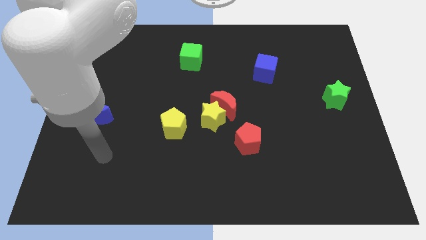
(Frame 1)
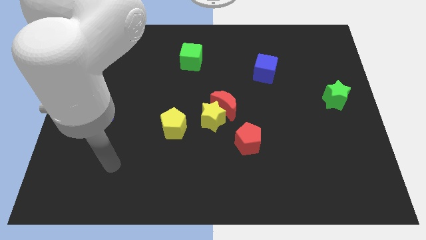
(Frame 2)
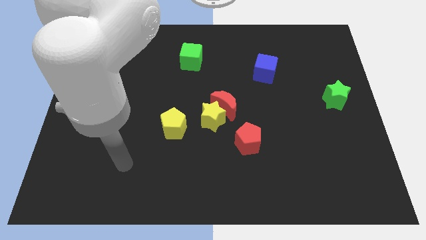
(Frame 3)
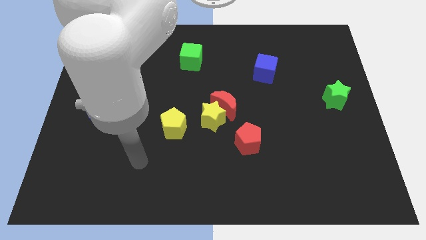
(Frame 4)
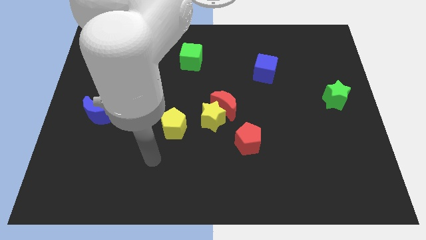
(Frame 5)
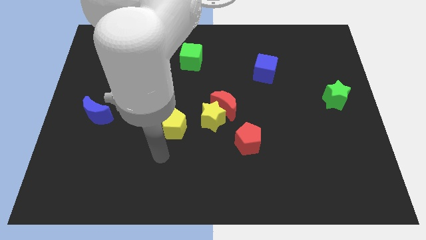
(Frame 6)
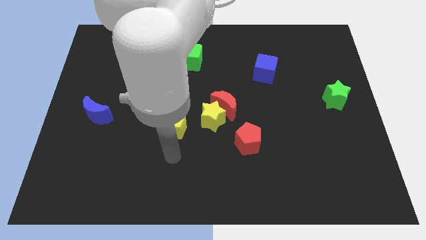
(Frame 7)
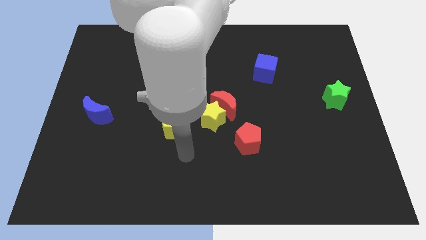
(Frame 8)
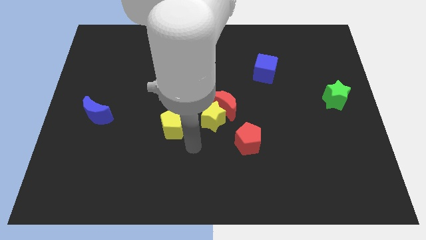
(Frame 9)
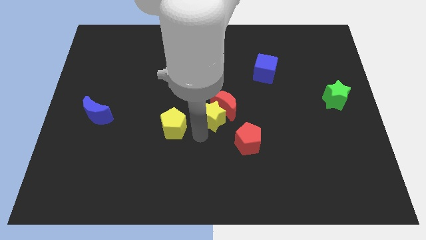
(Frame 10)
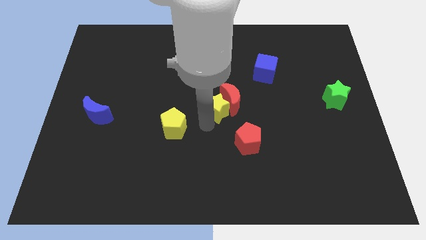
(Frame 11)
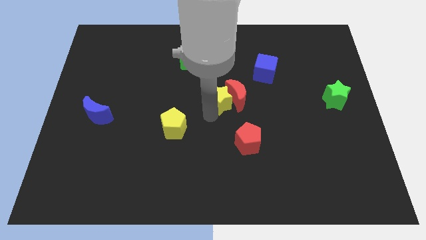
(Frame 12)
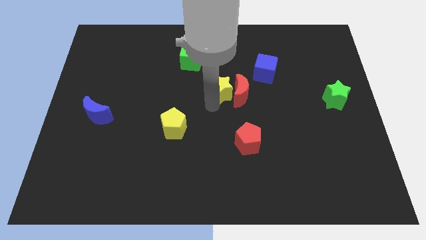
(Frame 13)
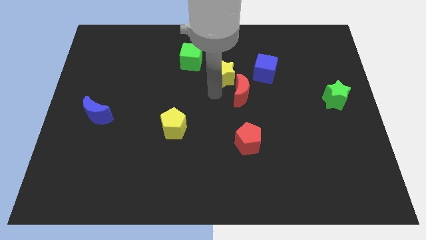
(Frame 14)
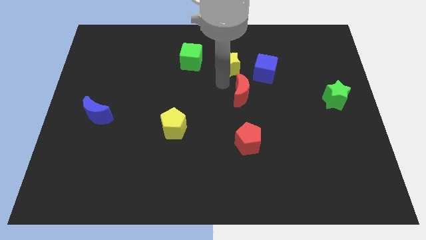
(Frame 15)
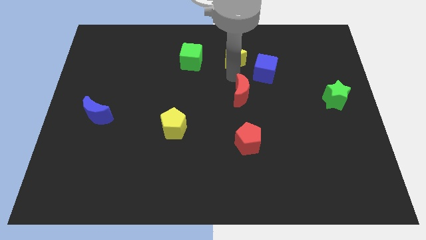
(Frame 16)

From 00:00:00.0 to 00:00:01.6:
separate the red moon from the yellow star

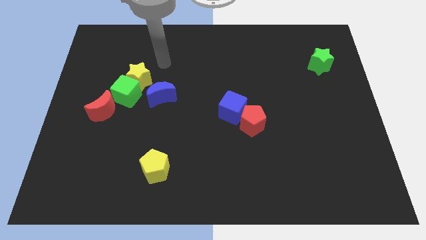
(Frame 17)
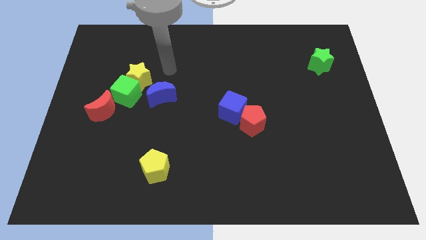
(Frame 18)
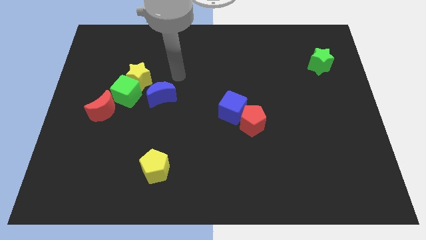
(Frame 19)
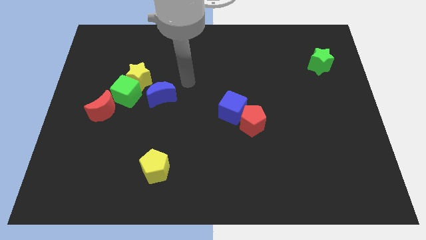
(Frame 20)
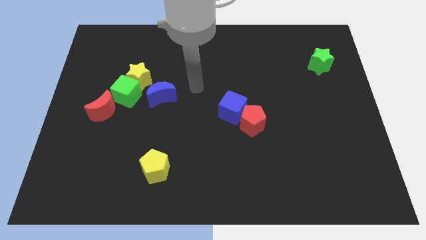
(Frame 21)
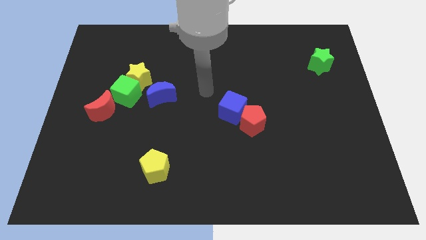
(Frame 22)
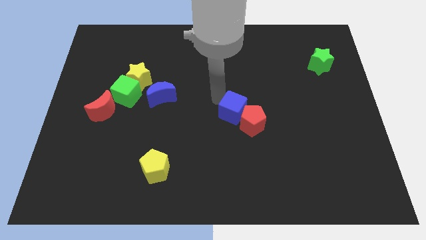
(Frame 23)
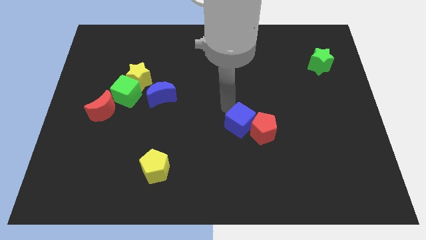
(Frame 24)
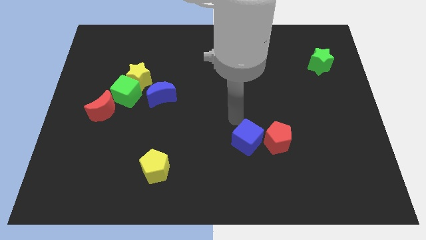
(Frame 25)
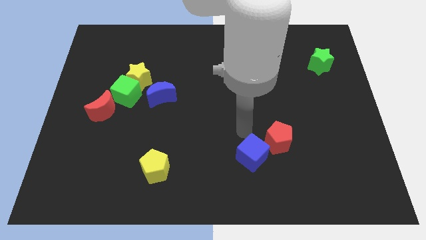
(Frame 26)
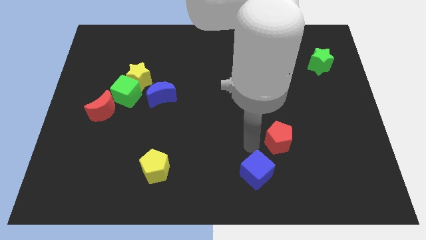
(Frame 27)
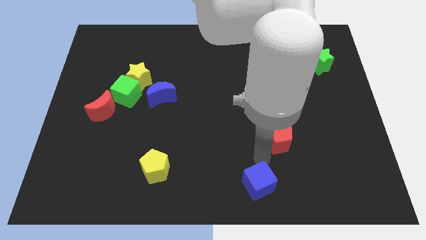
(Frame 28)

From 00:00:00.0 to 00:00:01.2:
pull the red pentagon apart from the blue cube

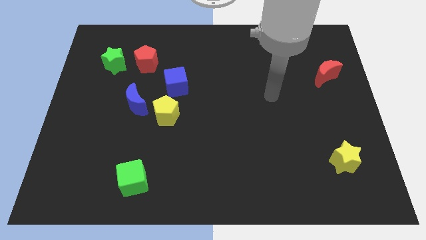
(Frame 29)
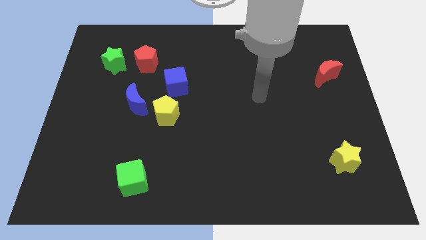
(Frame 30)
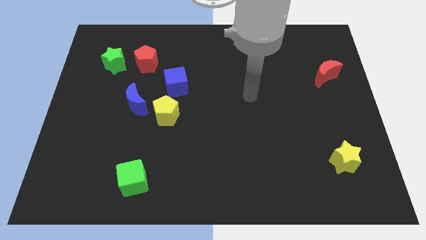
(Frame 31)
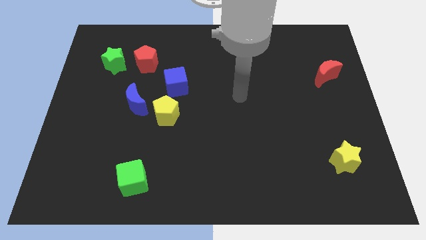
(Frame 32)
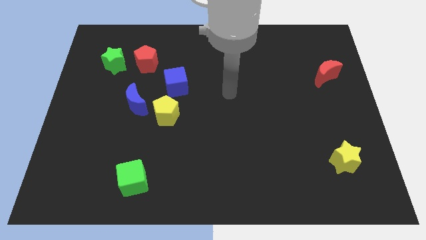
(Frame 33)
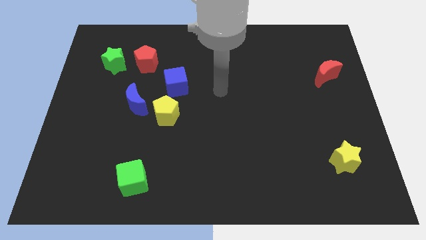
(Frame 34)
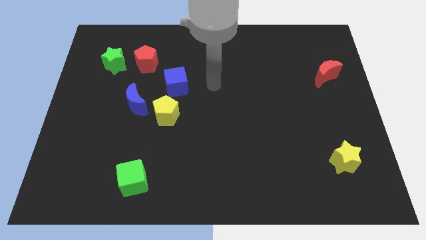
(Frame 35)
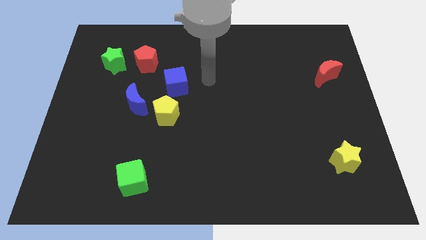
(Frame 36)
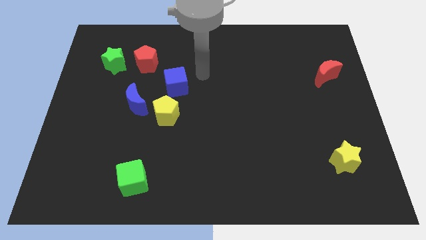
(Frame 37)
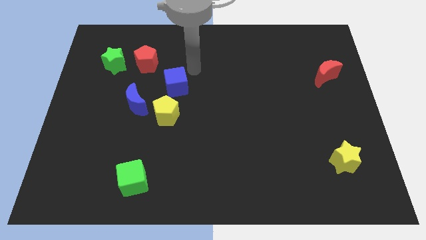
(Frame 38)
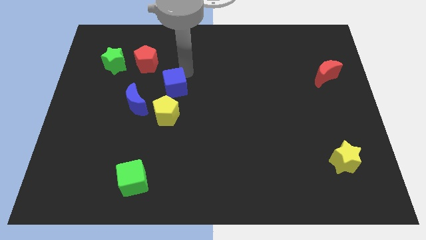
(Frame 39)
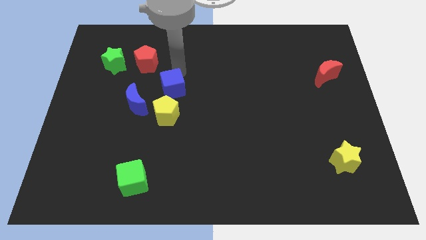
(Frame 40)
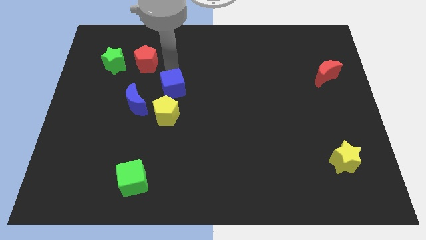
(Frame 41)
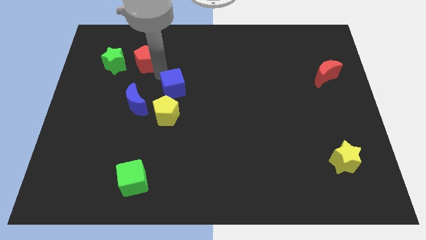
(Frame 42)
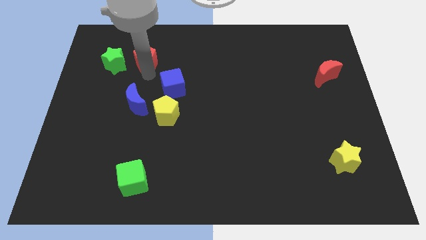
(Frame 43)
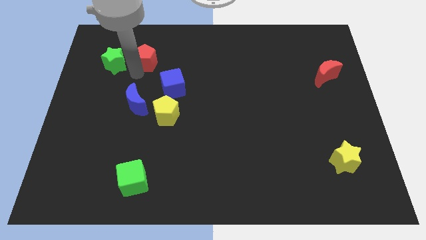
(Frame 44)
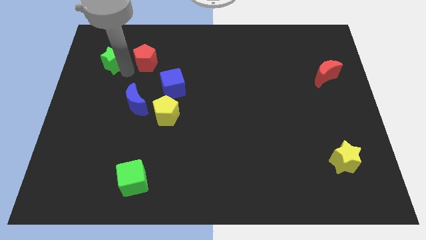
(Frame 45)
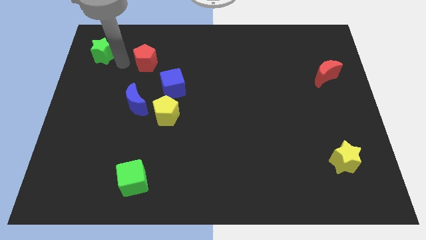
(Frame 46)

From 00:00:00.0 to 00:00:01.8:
pull the red pentagon apart from the green star

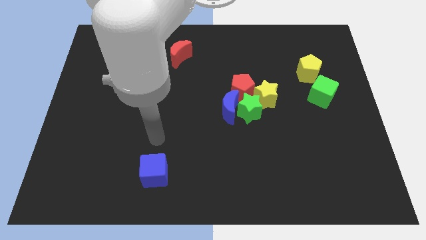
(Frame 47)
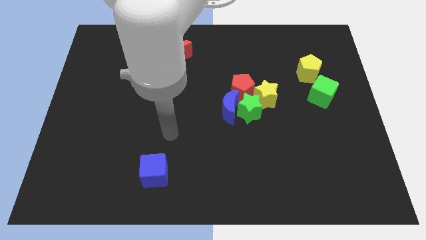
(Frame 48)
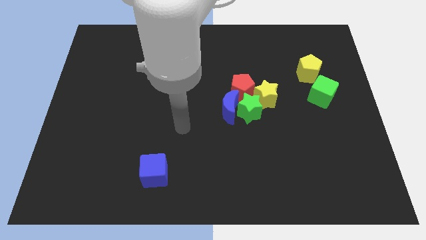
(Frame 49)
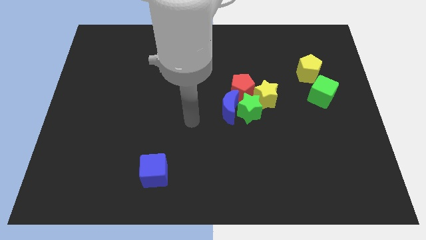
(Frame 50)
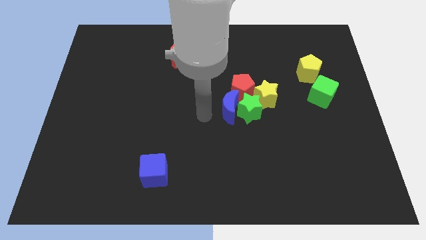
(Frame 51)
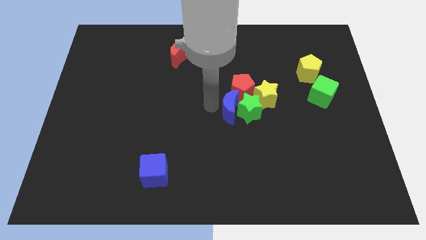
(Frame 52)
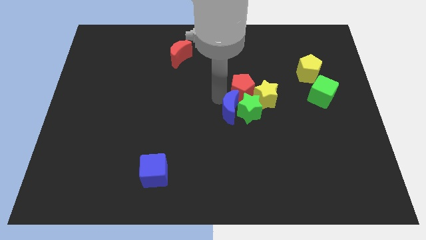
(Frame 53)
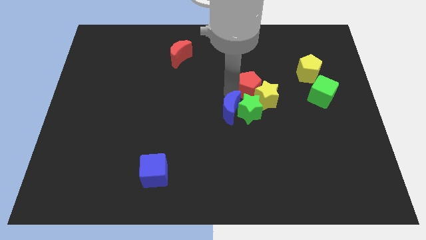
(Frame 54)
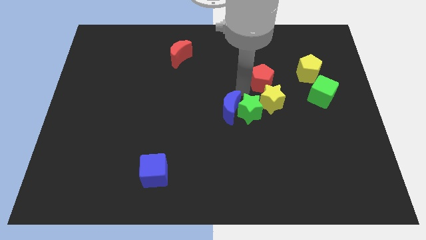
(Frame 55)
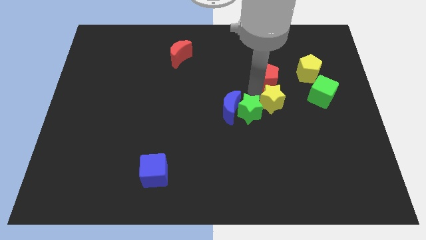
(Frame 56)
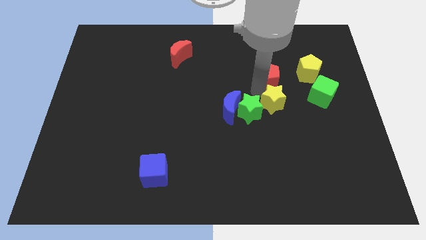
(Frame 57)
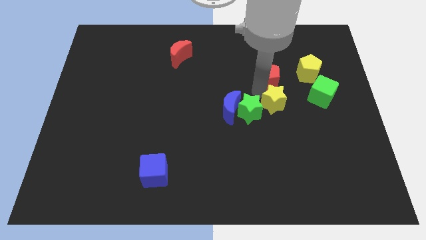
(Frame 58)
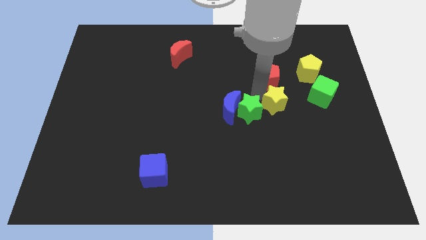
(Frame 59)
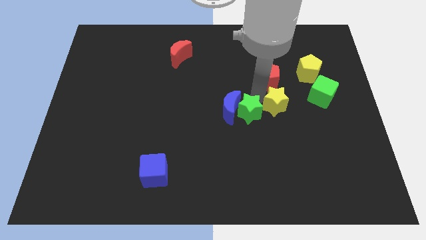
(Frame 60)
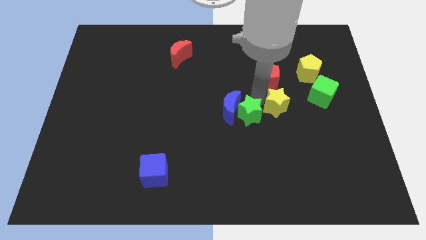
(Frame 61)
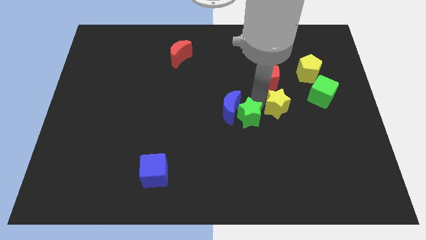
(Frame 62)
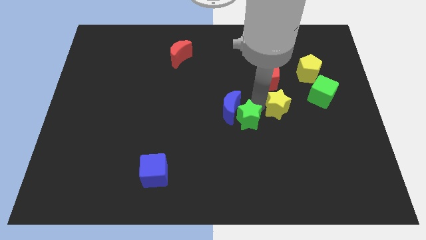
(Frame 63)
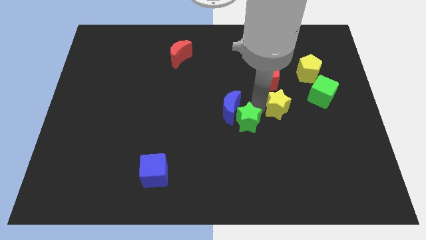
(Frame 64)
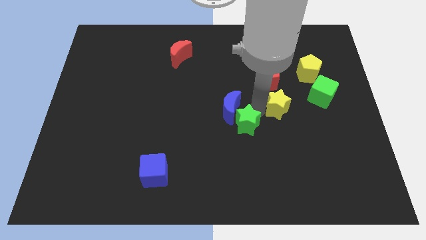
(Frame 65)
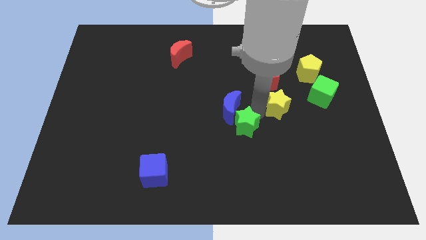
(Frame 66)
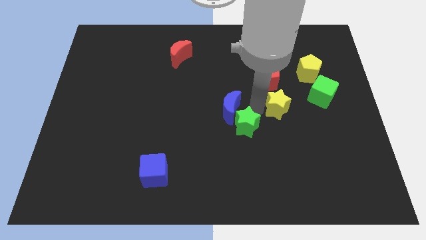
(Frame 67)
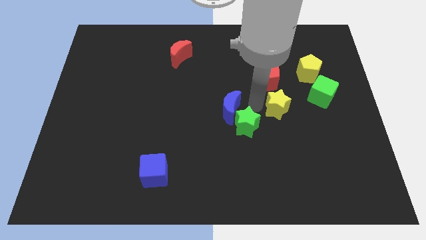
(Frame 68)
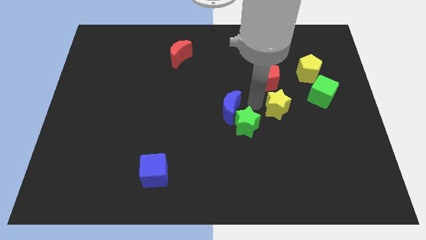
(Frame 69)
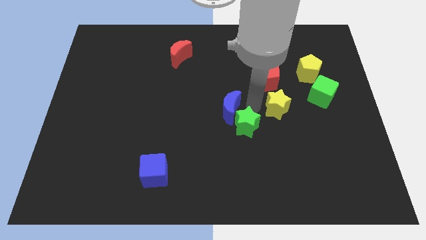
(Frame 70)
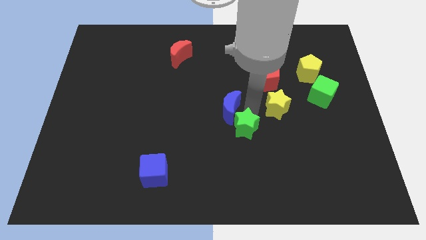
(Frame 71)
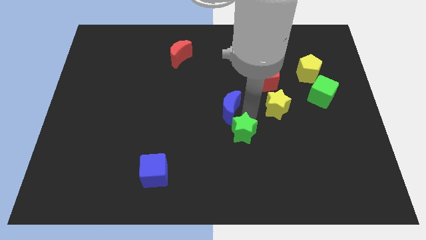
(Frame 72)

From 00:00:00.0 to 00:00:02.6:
pull the green star apart from the group

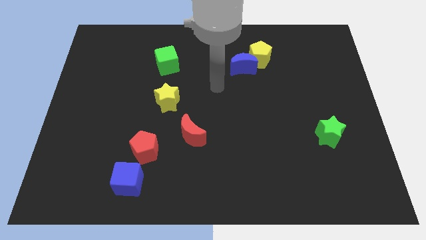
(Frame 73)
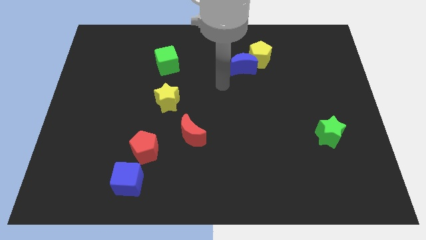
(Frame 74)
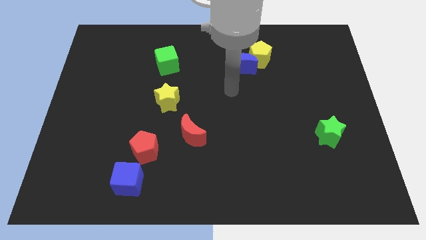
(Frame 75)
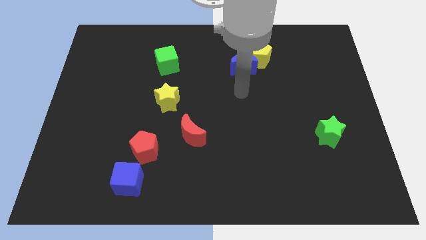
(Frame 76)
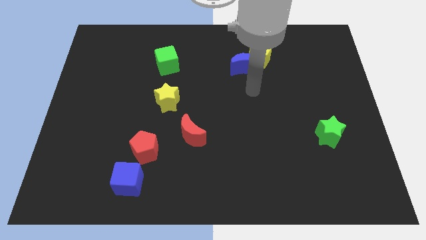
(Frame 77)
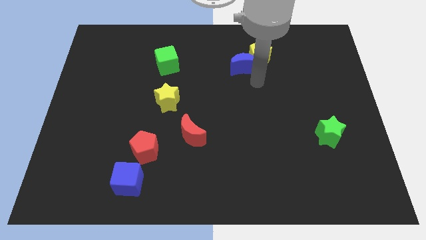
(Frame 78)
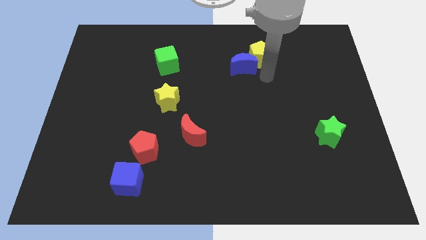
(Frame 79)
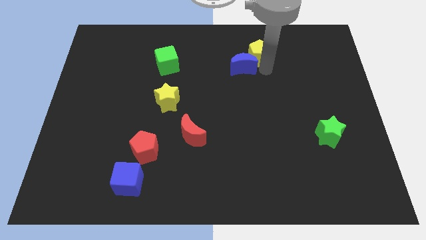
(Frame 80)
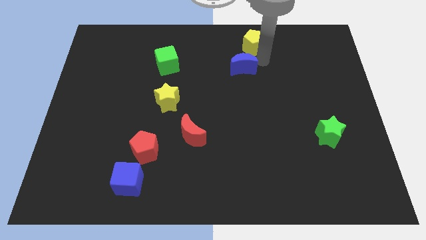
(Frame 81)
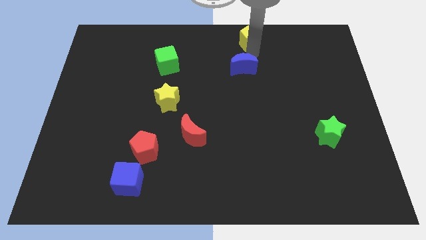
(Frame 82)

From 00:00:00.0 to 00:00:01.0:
move the blue moon away from the yellow pentagon

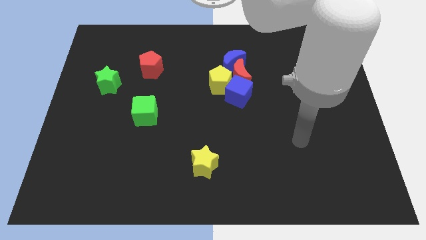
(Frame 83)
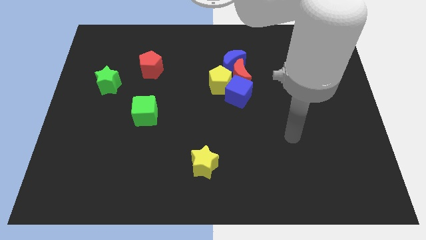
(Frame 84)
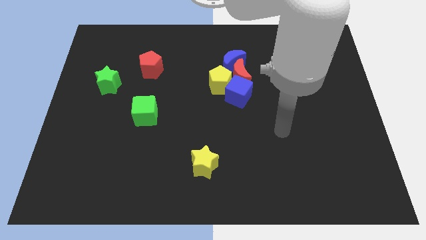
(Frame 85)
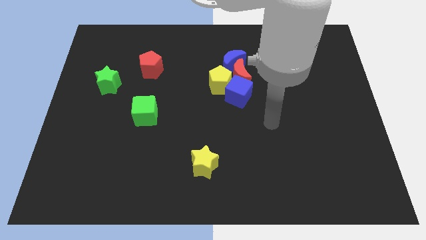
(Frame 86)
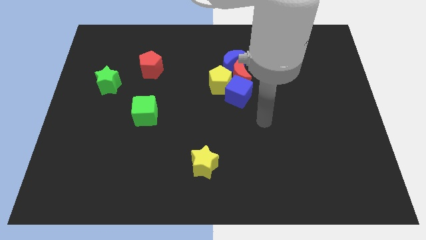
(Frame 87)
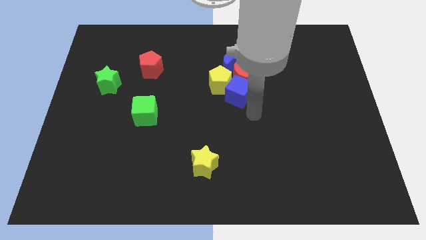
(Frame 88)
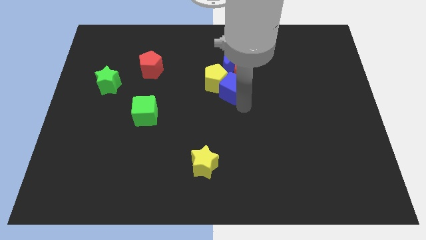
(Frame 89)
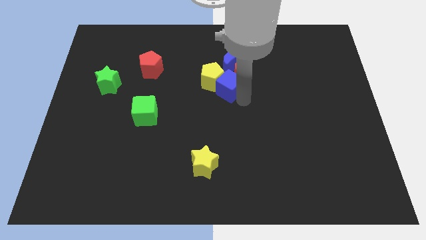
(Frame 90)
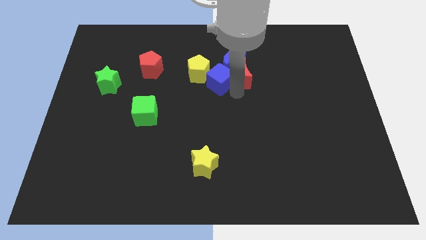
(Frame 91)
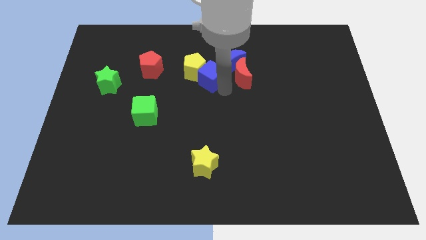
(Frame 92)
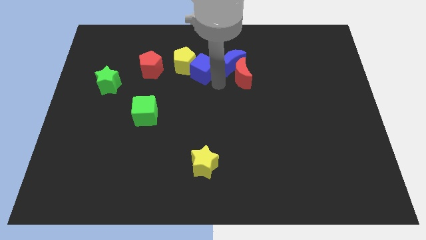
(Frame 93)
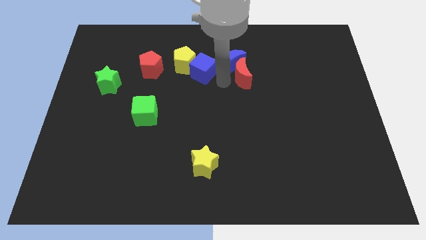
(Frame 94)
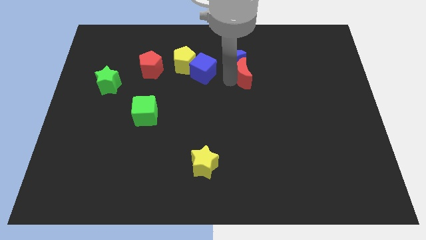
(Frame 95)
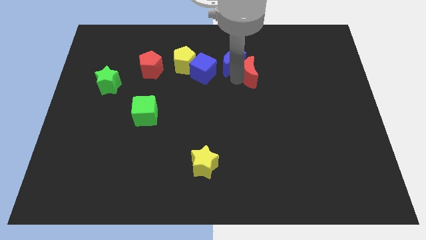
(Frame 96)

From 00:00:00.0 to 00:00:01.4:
pull the red moon apart from the blue moon, yellow pentagon, and blue cube
